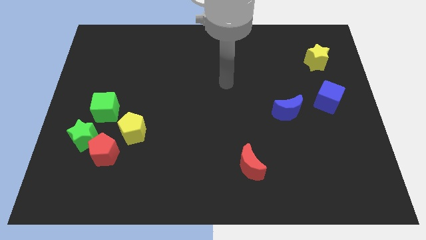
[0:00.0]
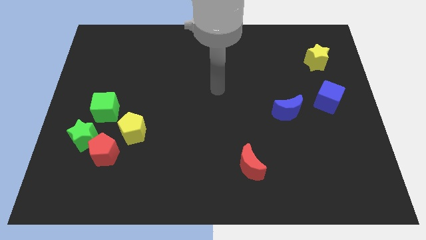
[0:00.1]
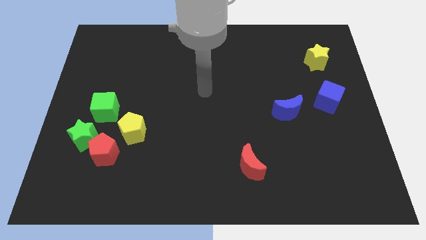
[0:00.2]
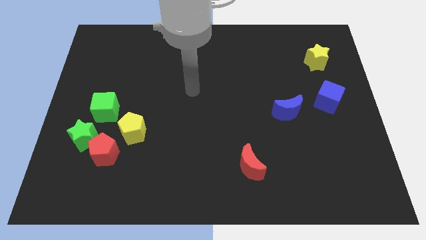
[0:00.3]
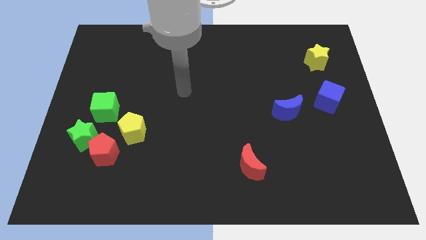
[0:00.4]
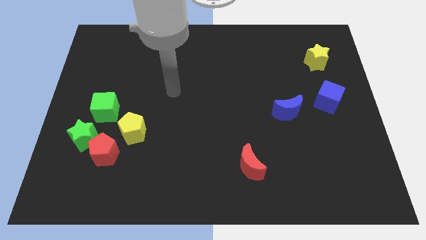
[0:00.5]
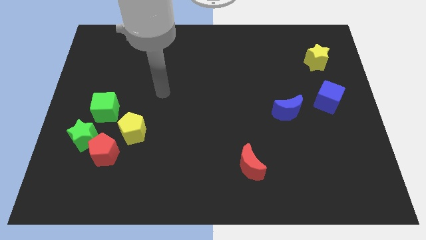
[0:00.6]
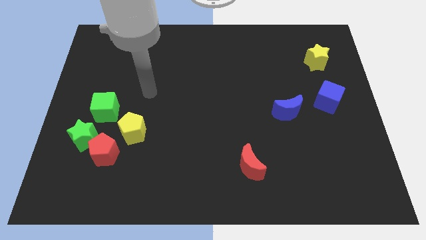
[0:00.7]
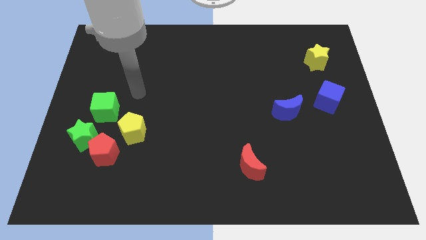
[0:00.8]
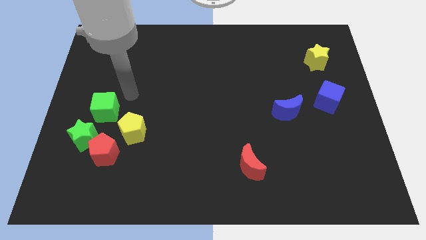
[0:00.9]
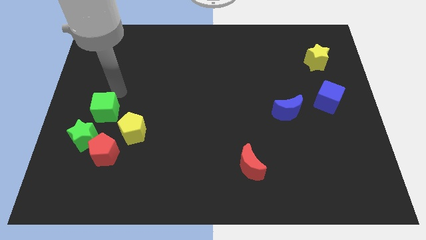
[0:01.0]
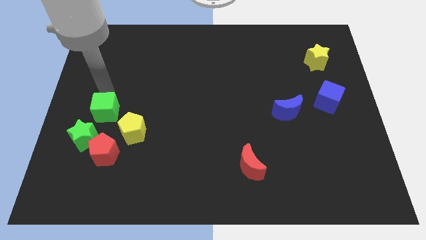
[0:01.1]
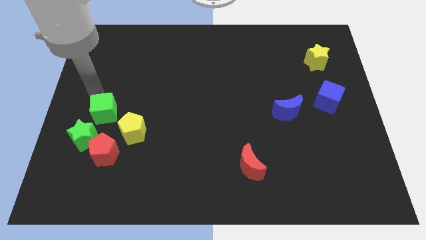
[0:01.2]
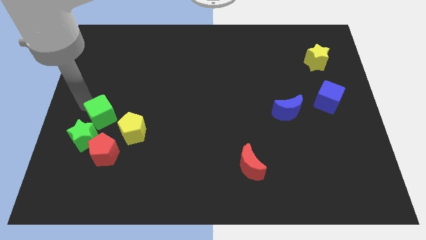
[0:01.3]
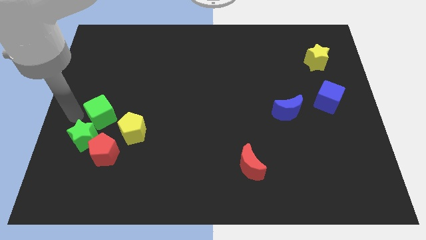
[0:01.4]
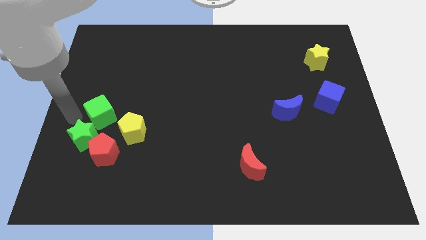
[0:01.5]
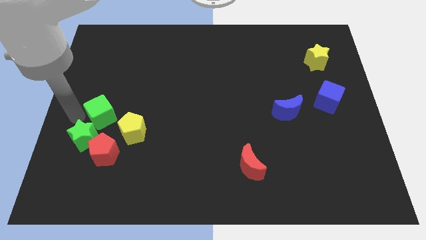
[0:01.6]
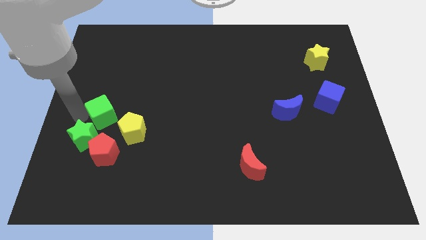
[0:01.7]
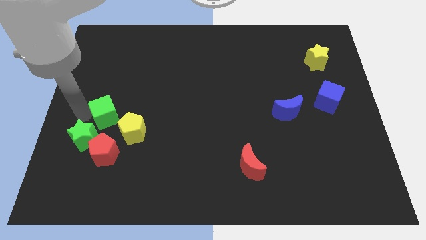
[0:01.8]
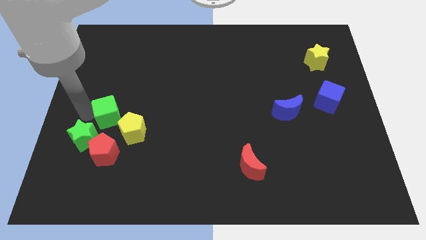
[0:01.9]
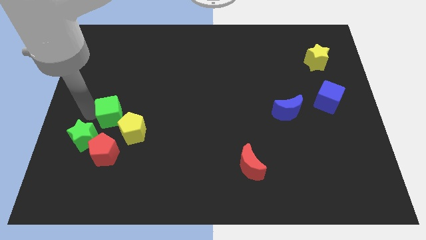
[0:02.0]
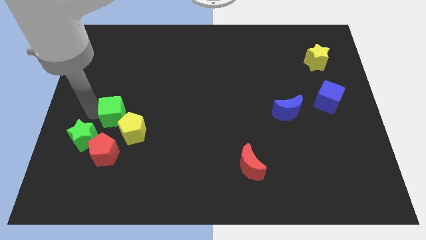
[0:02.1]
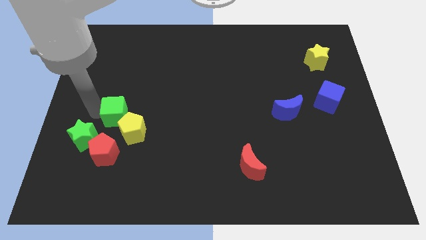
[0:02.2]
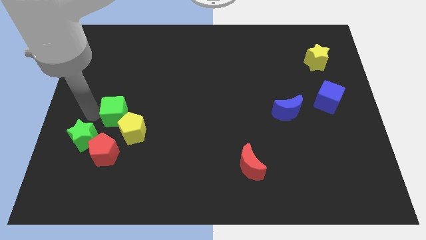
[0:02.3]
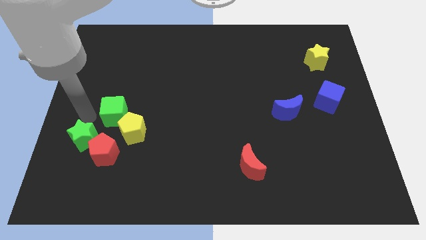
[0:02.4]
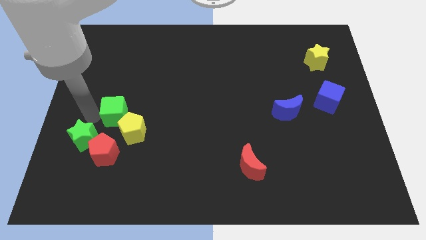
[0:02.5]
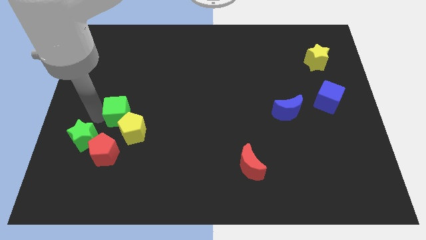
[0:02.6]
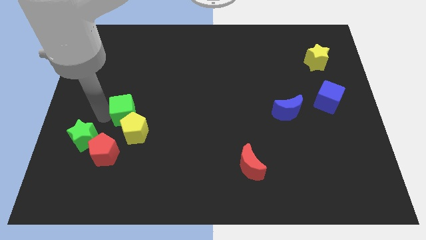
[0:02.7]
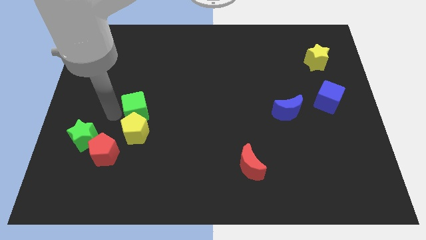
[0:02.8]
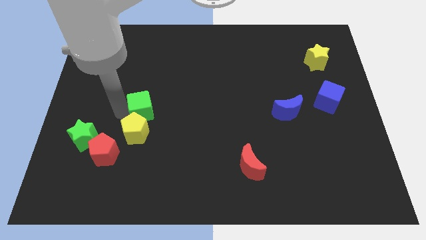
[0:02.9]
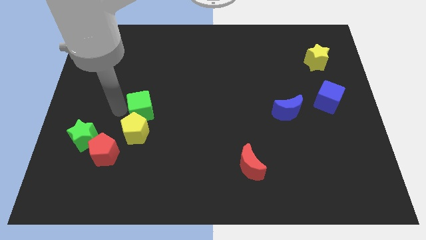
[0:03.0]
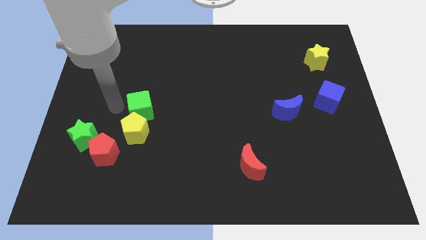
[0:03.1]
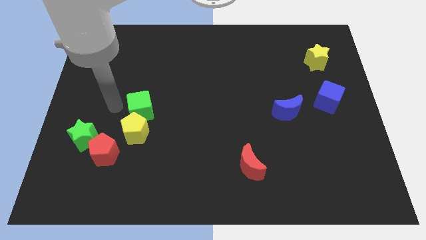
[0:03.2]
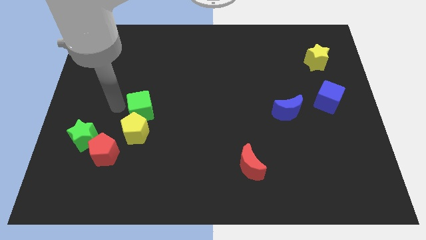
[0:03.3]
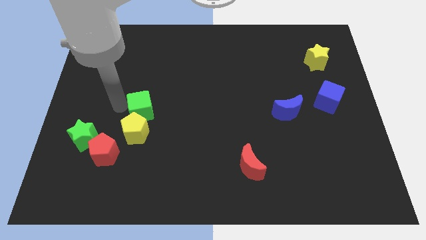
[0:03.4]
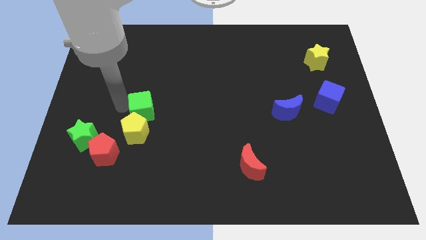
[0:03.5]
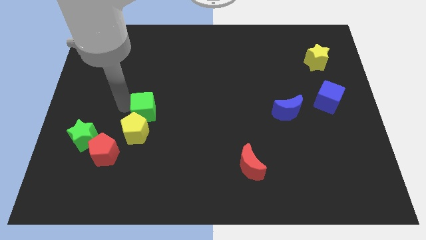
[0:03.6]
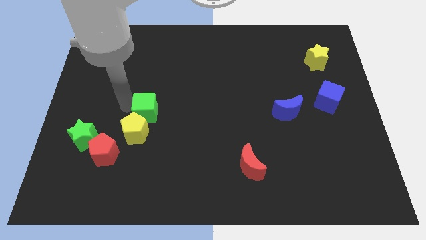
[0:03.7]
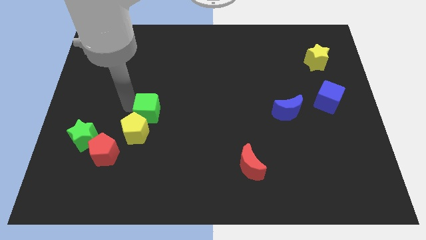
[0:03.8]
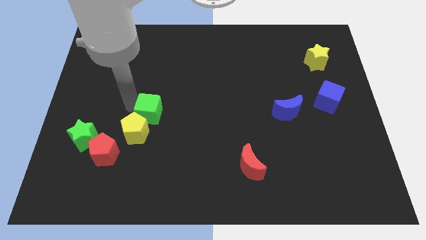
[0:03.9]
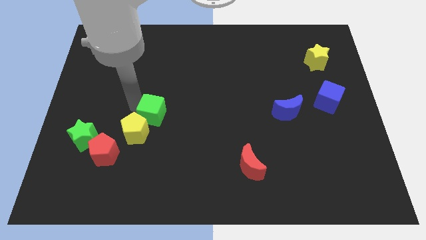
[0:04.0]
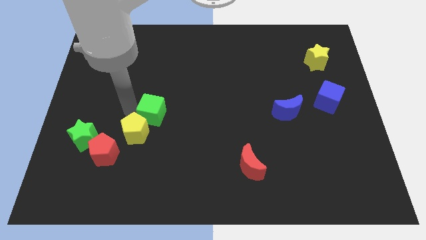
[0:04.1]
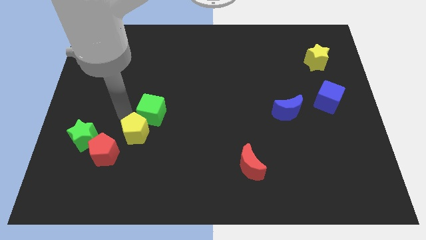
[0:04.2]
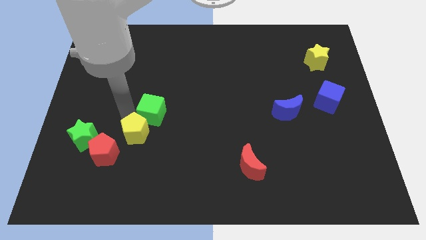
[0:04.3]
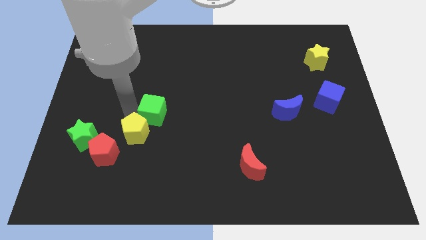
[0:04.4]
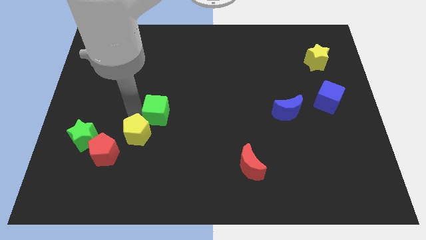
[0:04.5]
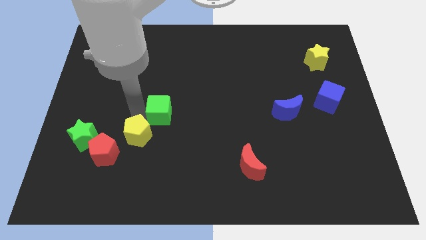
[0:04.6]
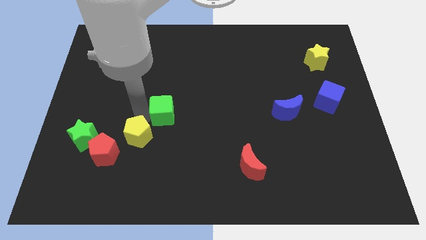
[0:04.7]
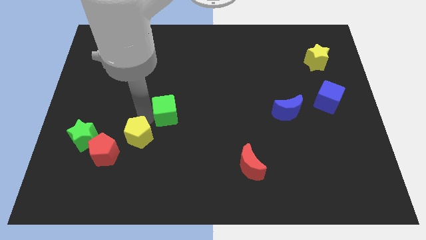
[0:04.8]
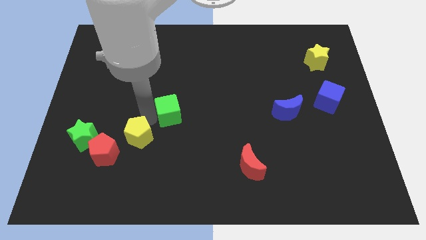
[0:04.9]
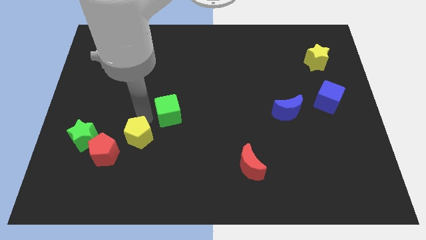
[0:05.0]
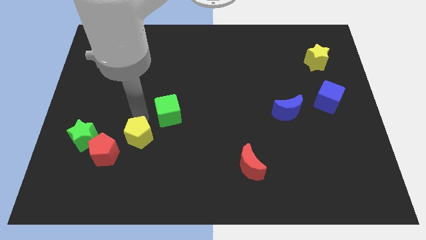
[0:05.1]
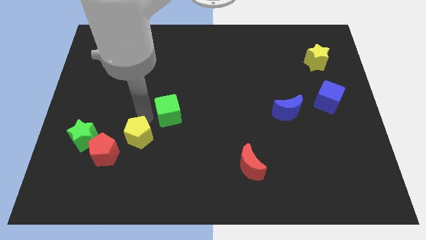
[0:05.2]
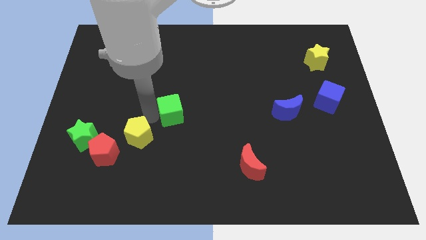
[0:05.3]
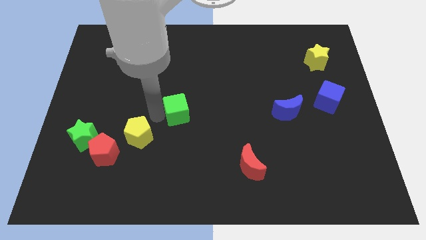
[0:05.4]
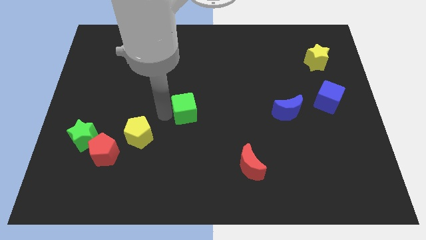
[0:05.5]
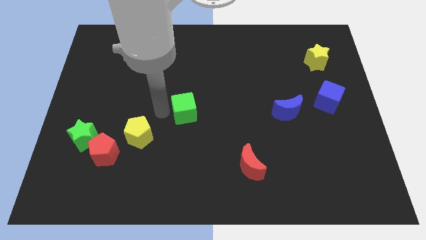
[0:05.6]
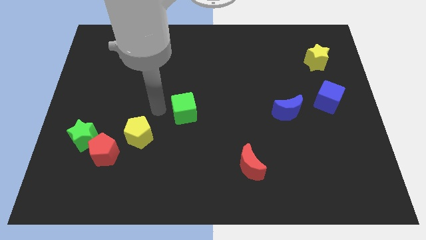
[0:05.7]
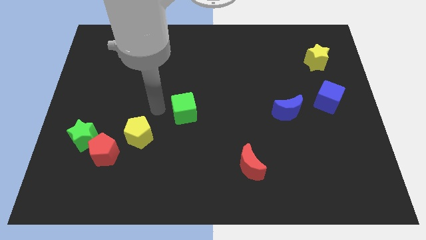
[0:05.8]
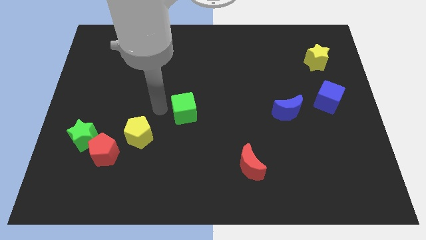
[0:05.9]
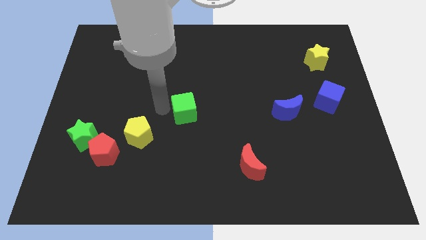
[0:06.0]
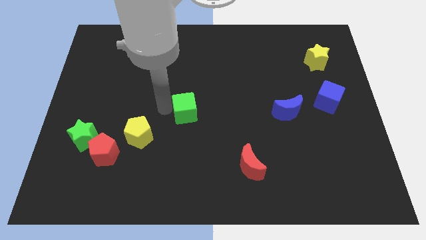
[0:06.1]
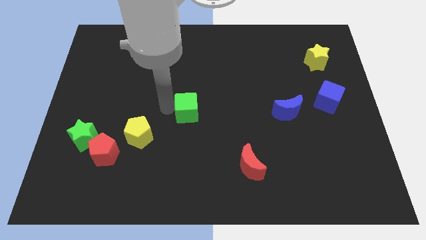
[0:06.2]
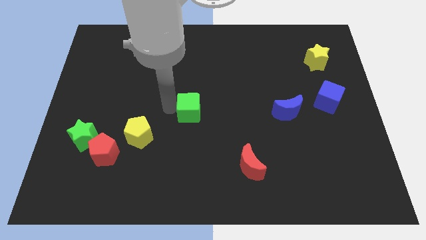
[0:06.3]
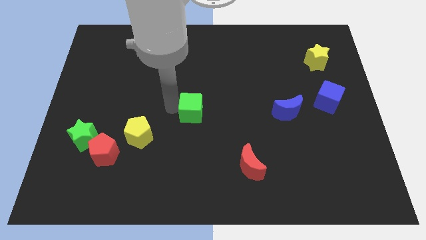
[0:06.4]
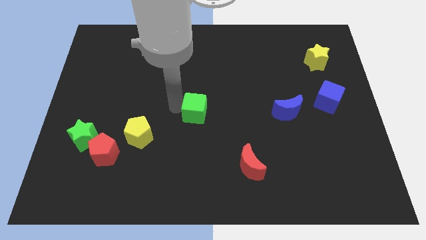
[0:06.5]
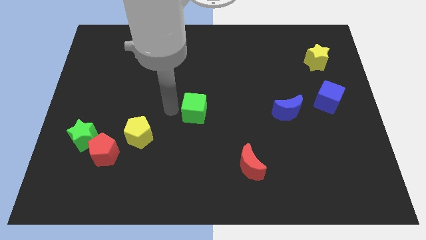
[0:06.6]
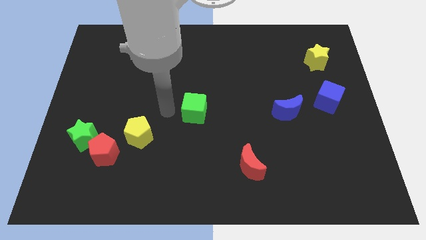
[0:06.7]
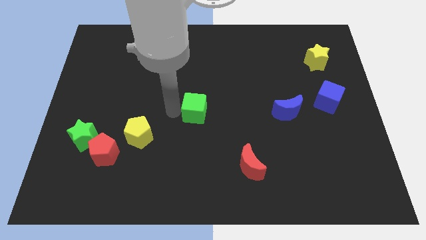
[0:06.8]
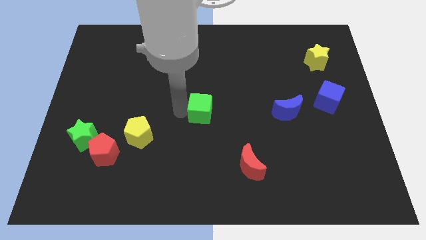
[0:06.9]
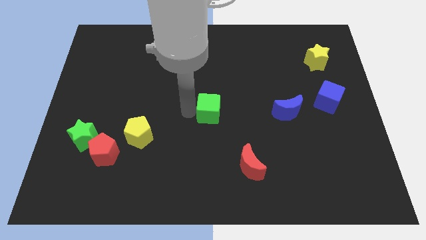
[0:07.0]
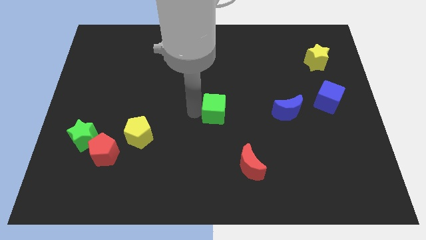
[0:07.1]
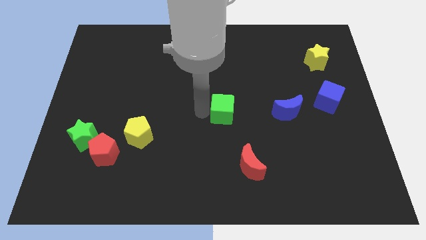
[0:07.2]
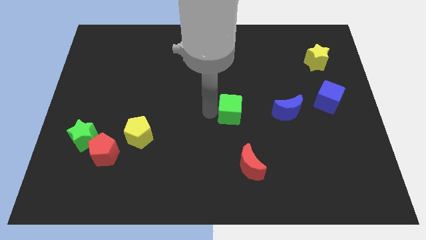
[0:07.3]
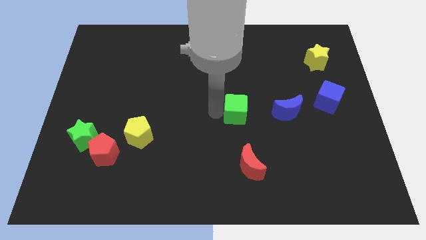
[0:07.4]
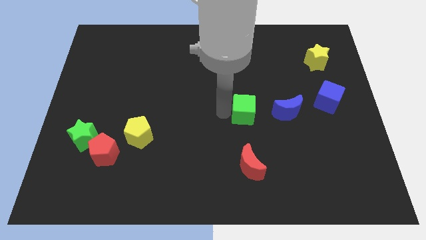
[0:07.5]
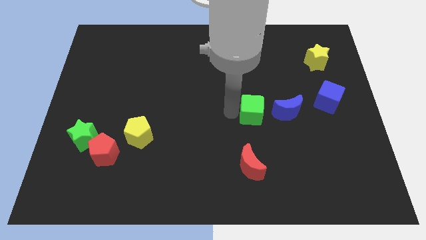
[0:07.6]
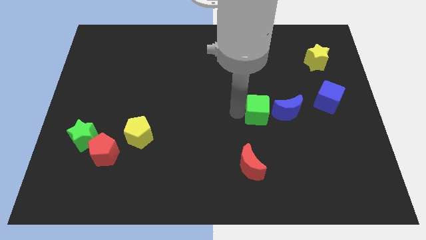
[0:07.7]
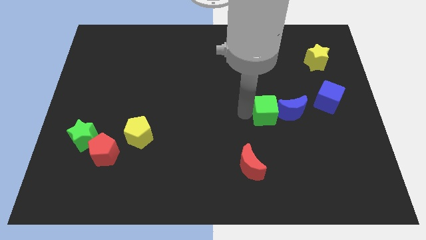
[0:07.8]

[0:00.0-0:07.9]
move the green cube next to the blue moon
